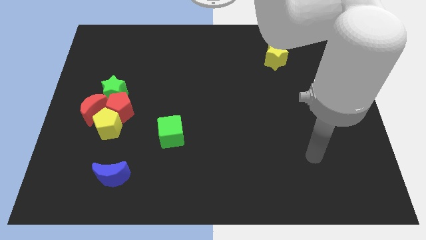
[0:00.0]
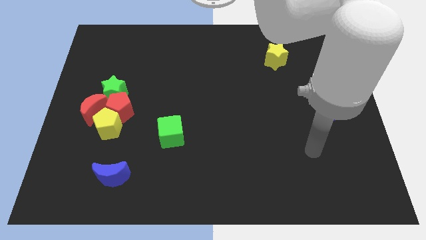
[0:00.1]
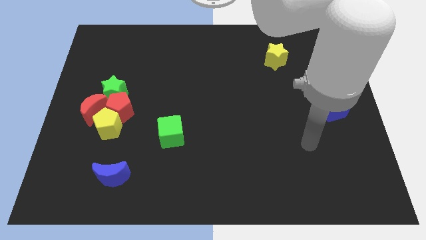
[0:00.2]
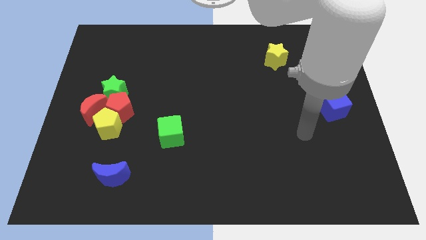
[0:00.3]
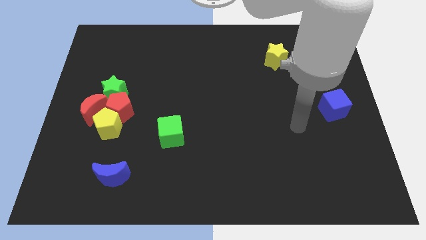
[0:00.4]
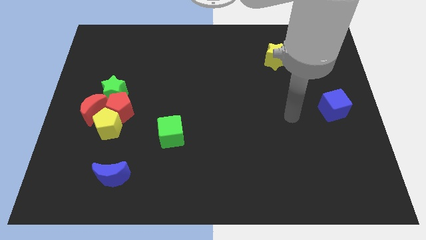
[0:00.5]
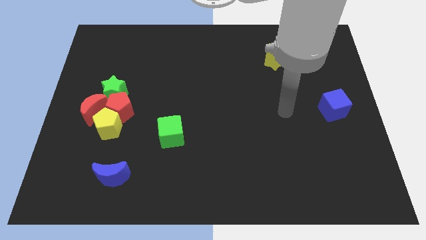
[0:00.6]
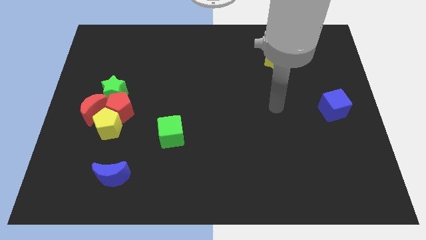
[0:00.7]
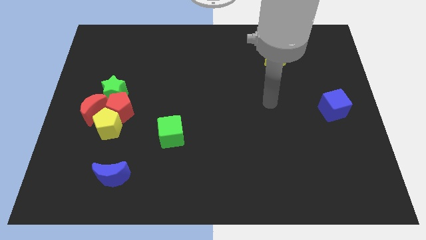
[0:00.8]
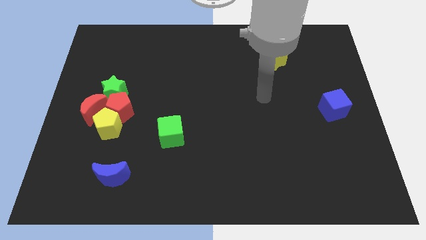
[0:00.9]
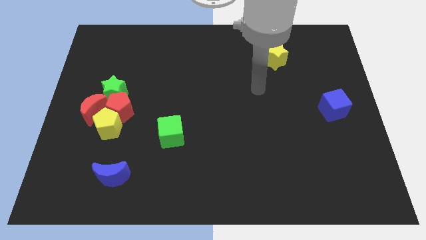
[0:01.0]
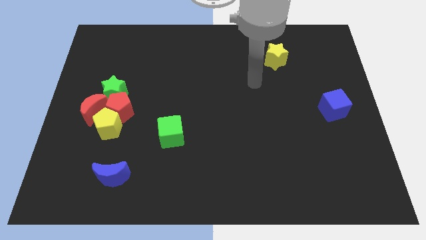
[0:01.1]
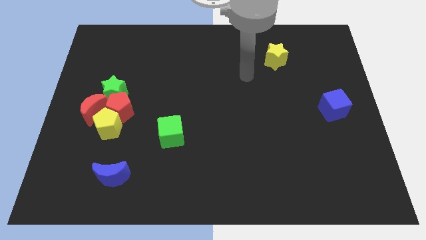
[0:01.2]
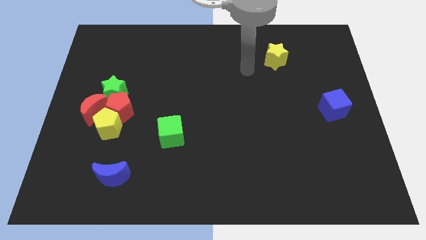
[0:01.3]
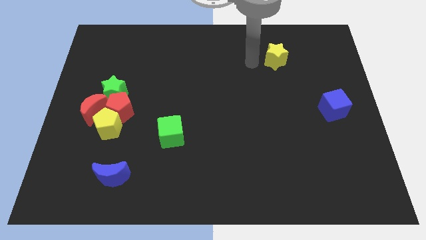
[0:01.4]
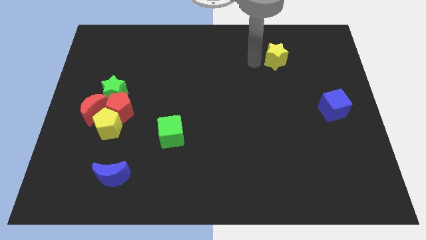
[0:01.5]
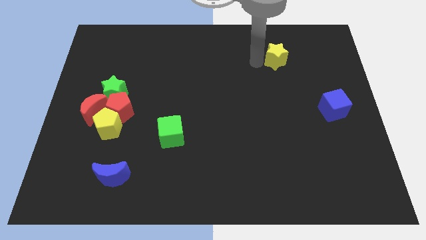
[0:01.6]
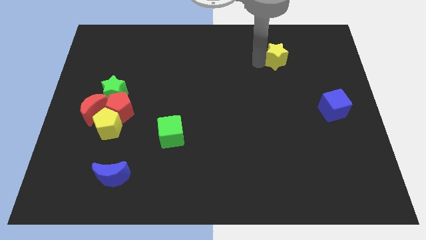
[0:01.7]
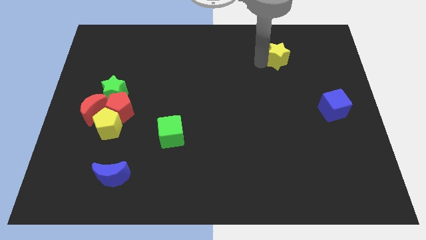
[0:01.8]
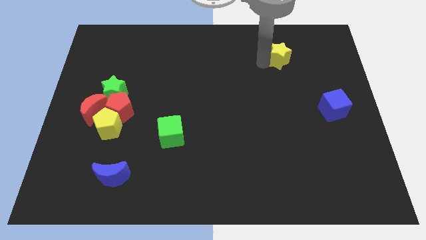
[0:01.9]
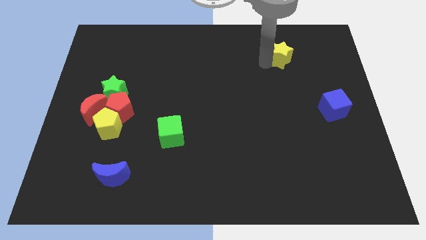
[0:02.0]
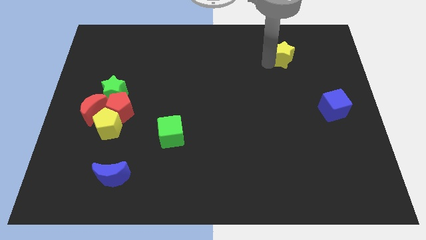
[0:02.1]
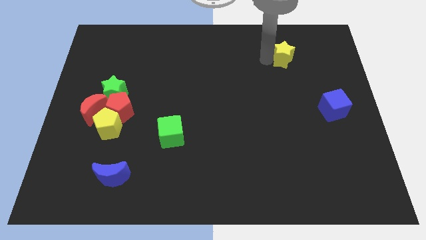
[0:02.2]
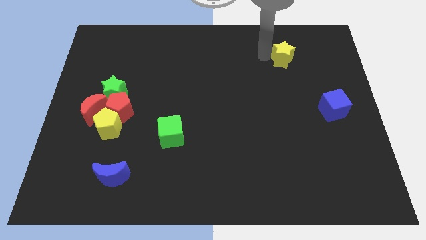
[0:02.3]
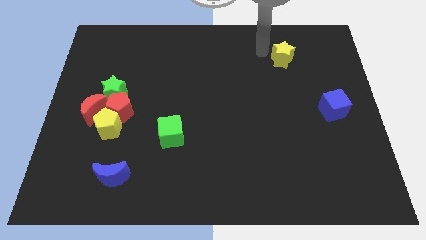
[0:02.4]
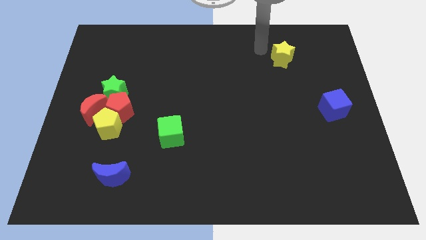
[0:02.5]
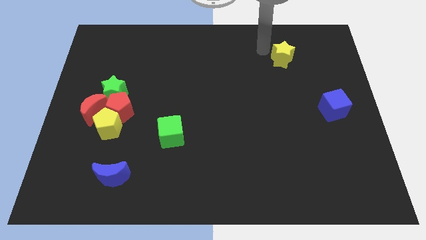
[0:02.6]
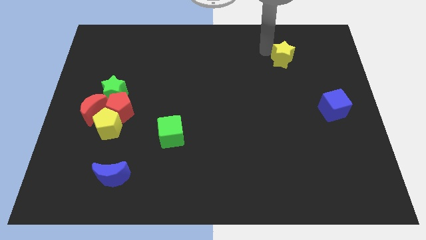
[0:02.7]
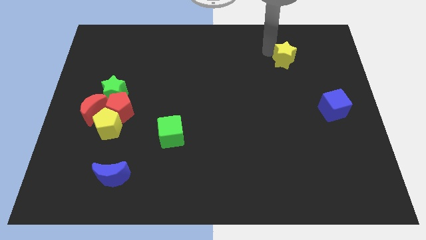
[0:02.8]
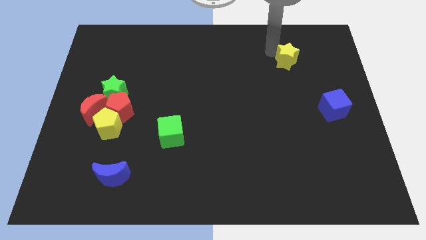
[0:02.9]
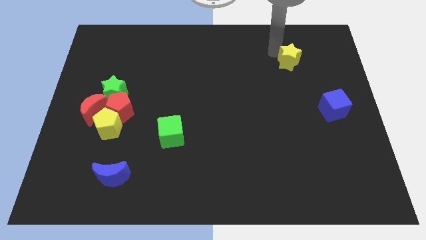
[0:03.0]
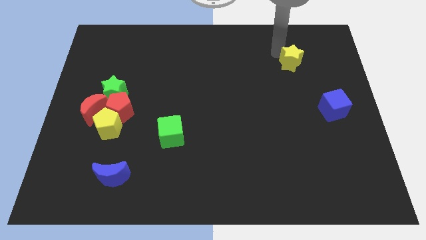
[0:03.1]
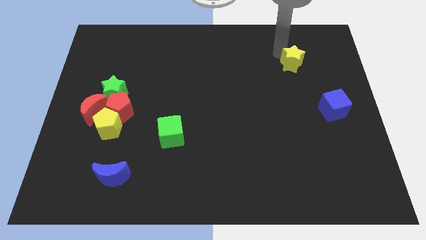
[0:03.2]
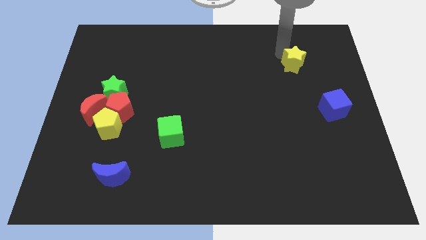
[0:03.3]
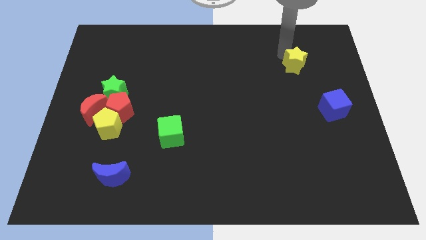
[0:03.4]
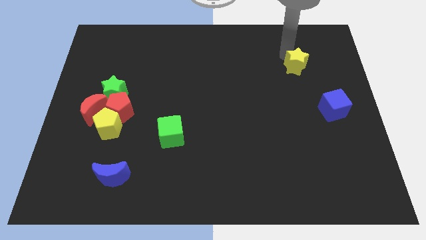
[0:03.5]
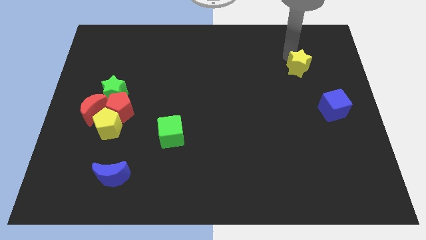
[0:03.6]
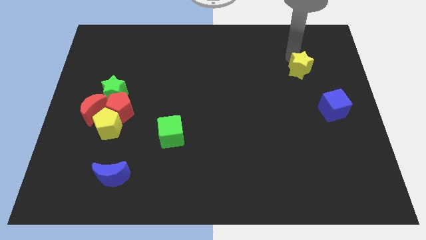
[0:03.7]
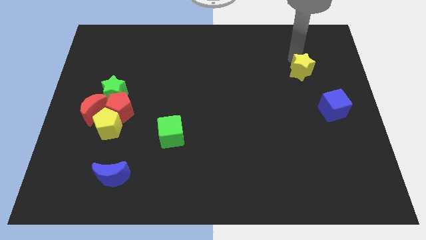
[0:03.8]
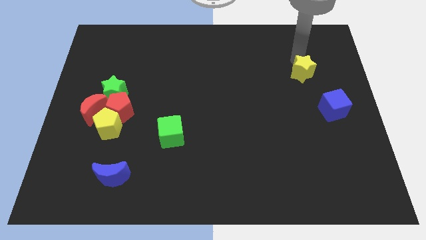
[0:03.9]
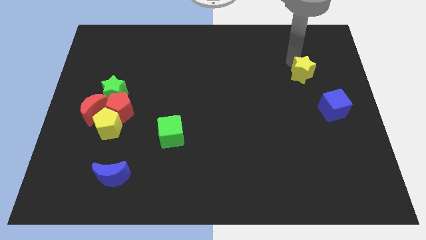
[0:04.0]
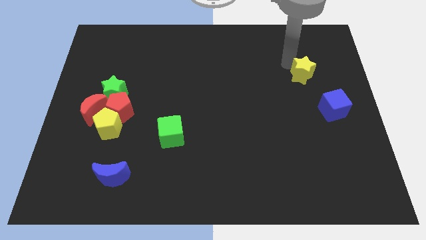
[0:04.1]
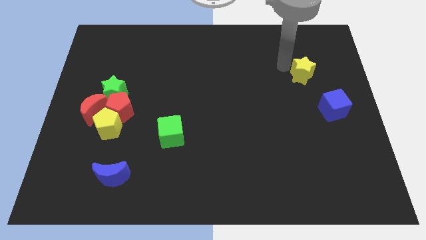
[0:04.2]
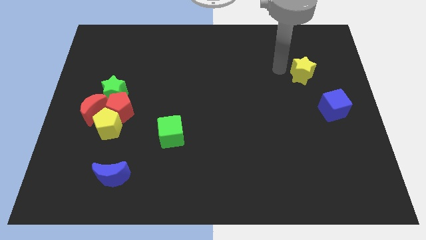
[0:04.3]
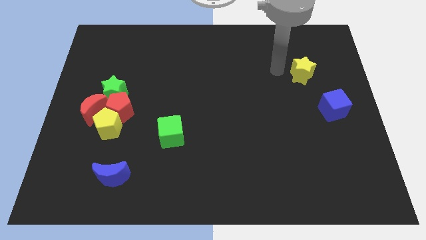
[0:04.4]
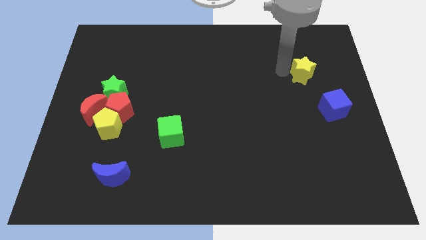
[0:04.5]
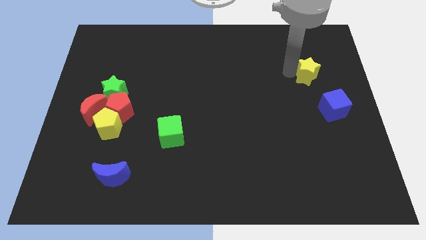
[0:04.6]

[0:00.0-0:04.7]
push the yellow star to the top side of the blue cube

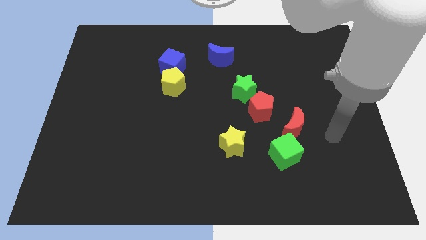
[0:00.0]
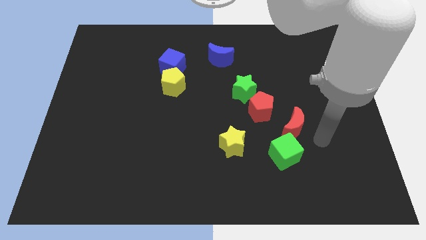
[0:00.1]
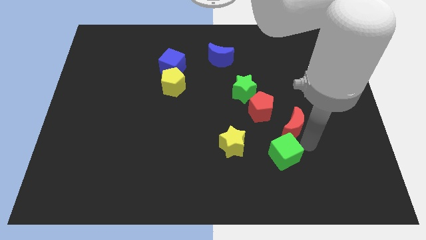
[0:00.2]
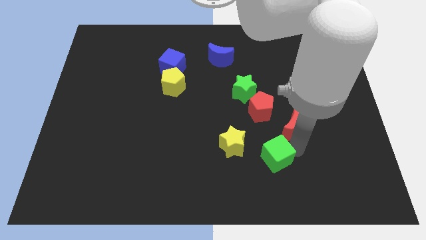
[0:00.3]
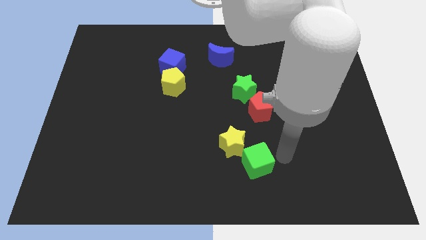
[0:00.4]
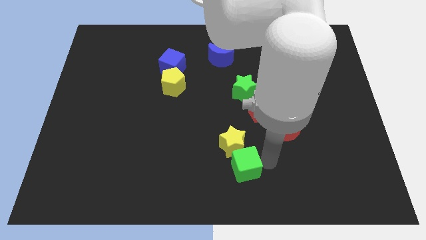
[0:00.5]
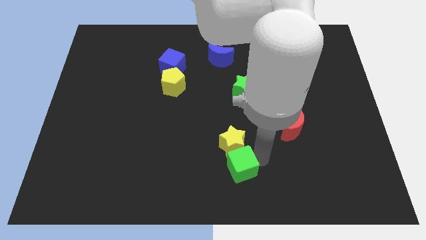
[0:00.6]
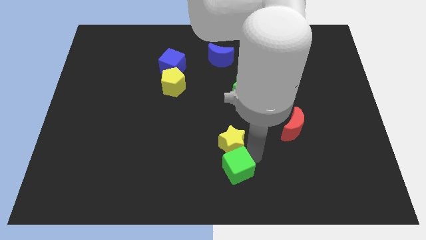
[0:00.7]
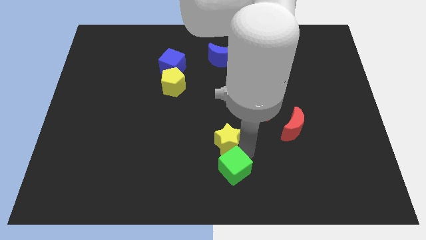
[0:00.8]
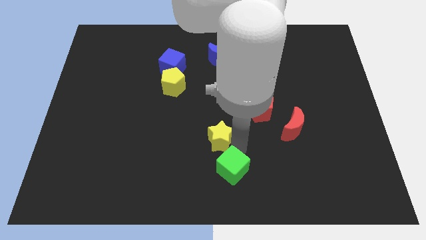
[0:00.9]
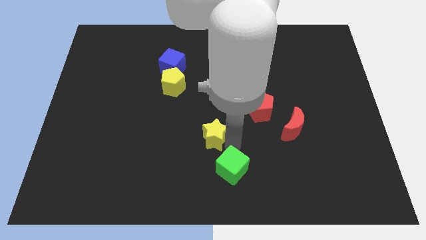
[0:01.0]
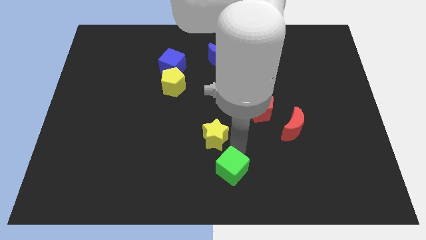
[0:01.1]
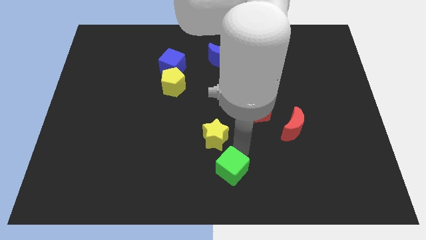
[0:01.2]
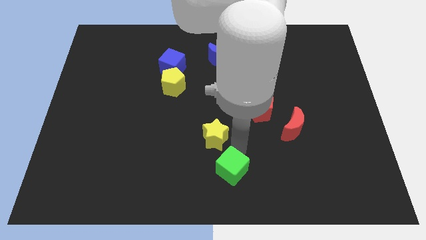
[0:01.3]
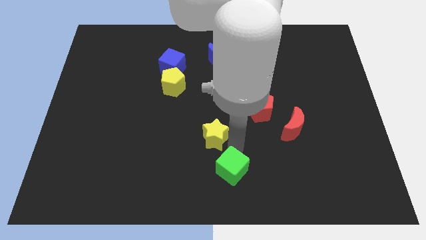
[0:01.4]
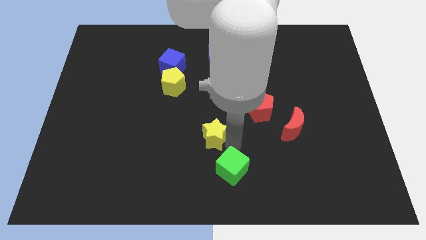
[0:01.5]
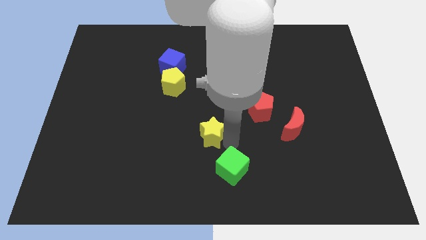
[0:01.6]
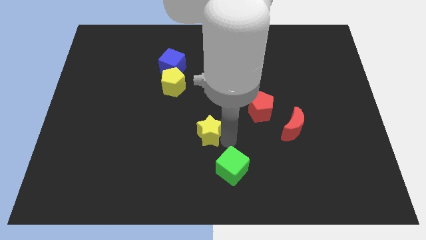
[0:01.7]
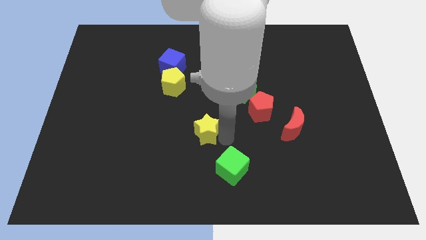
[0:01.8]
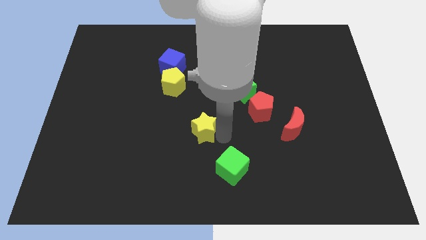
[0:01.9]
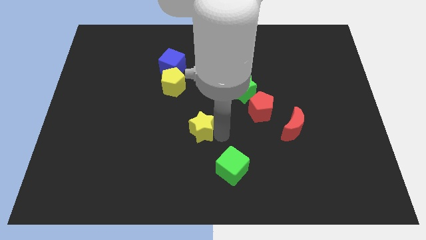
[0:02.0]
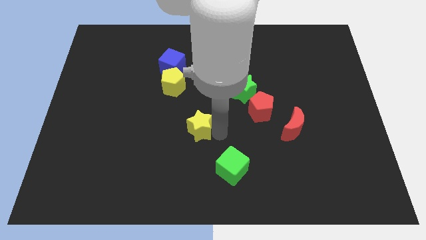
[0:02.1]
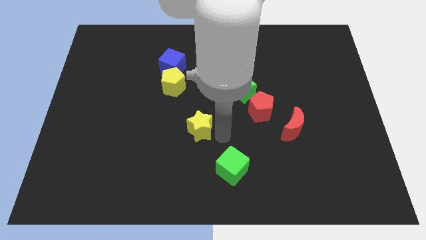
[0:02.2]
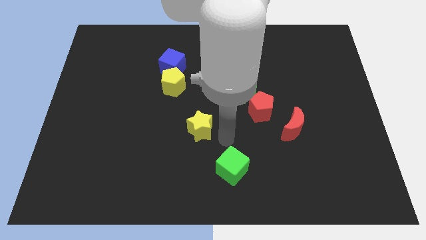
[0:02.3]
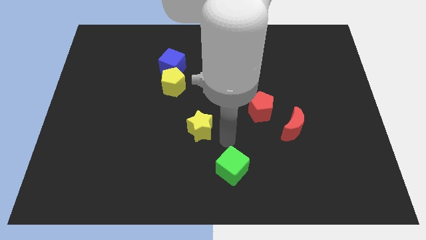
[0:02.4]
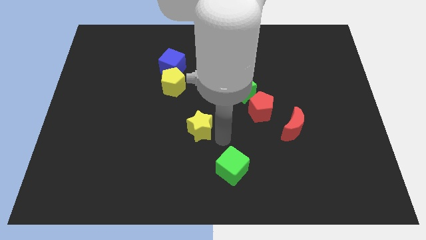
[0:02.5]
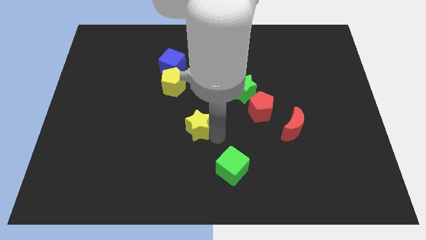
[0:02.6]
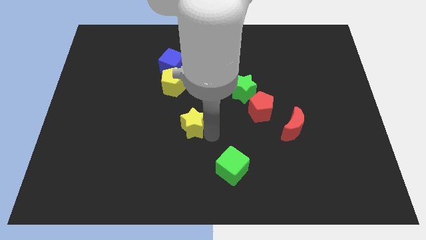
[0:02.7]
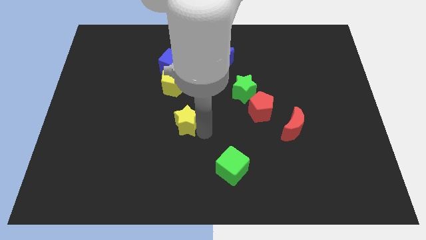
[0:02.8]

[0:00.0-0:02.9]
put the yellow star to the bottom of the yellow pentagon

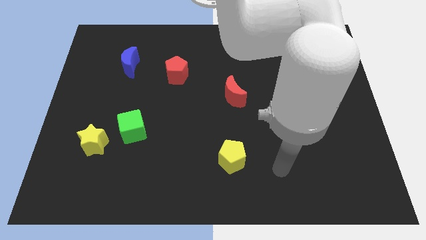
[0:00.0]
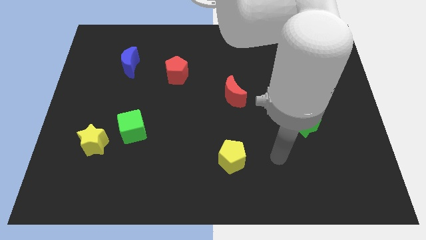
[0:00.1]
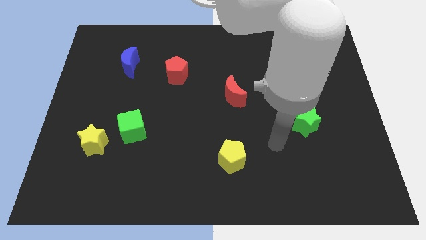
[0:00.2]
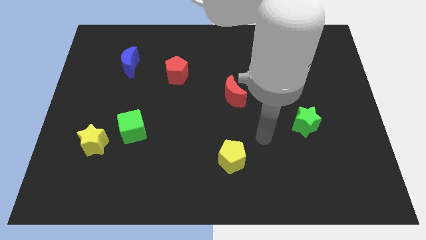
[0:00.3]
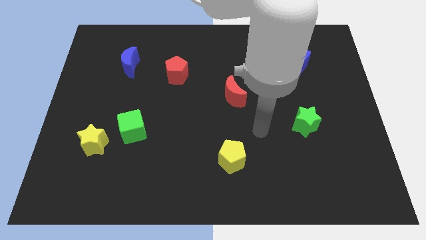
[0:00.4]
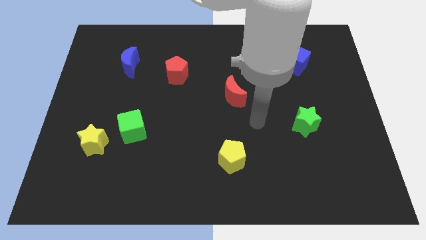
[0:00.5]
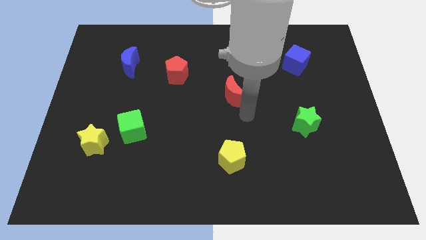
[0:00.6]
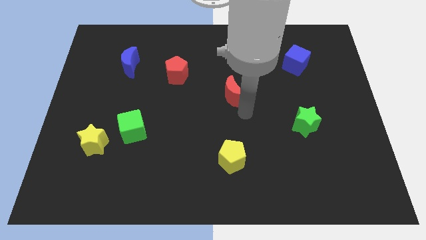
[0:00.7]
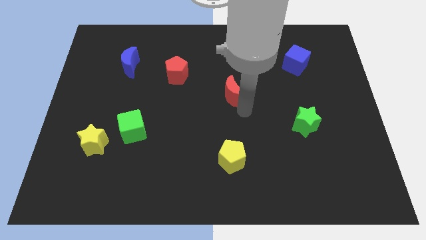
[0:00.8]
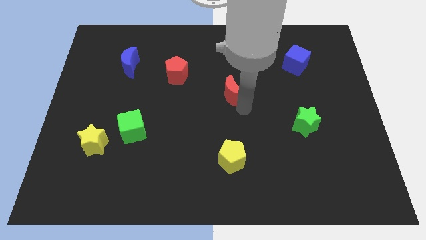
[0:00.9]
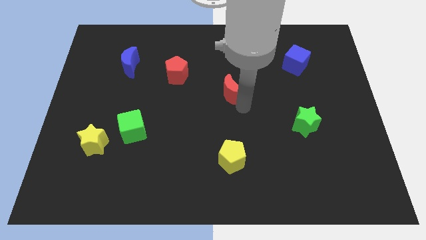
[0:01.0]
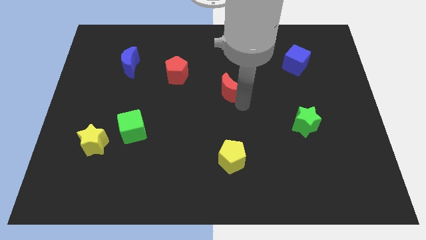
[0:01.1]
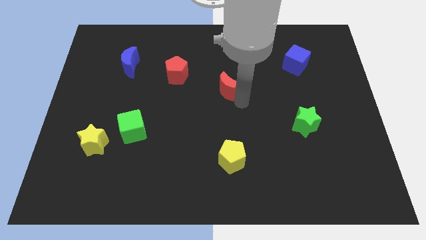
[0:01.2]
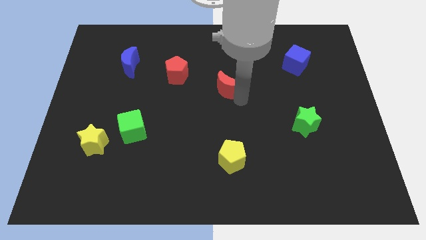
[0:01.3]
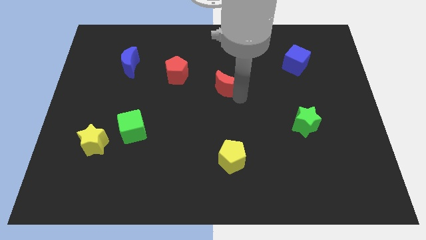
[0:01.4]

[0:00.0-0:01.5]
put the red moon just right of the red pentagon
